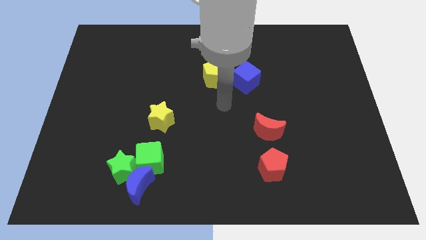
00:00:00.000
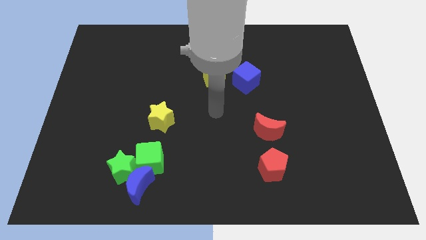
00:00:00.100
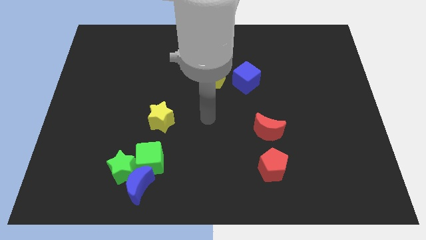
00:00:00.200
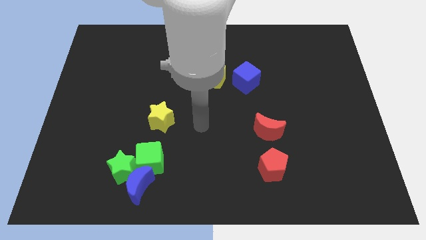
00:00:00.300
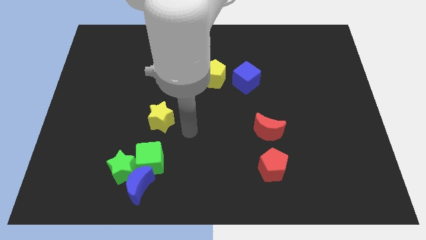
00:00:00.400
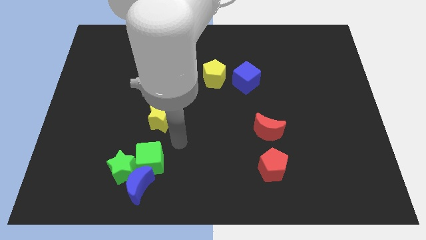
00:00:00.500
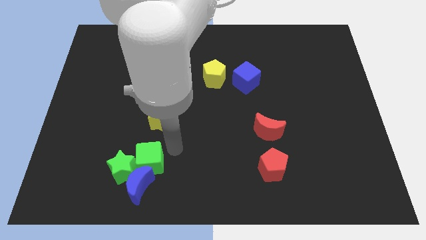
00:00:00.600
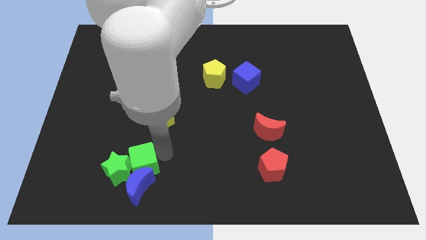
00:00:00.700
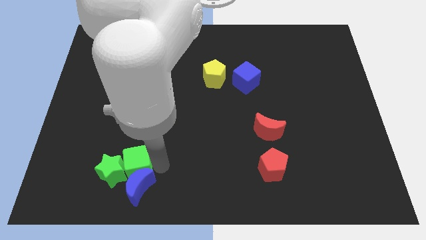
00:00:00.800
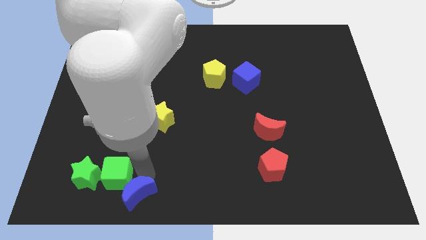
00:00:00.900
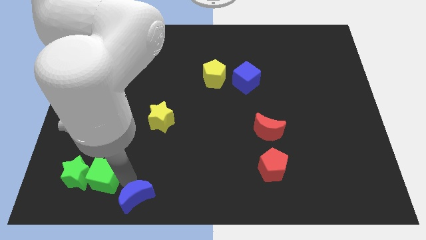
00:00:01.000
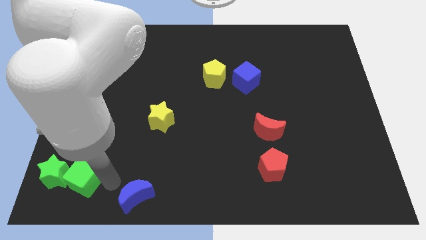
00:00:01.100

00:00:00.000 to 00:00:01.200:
pull the green star apart from the blue moon and green cube

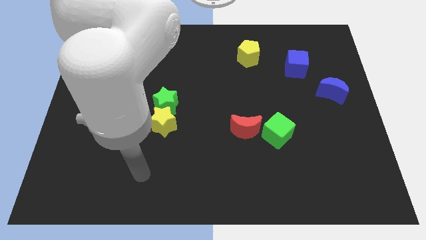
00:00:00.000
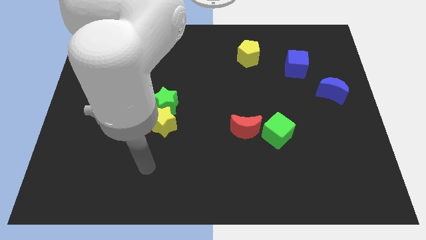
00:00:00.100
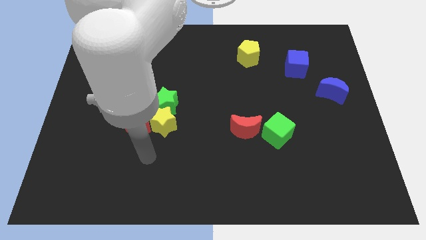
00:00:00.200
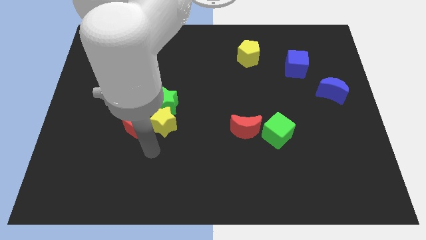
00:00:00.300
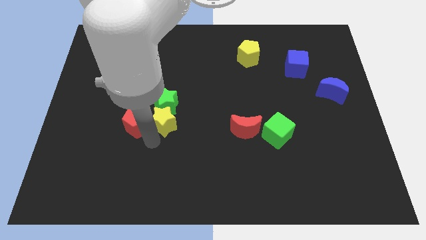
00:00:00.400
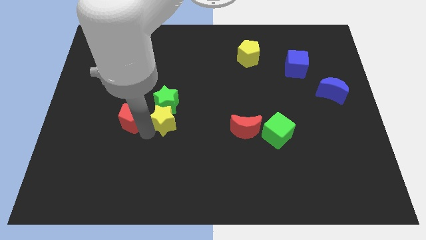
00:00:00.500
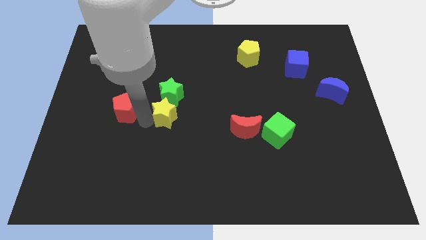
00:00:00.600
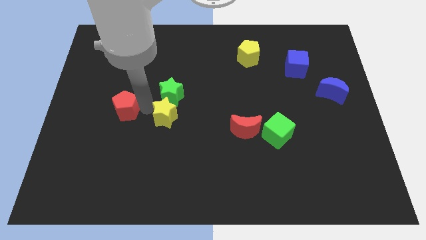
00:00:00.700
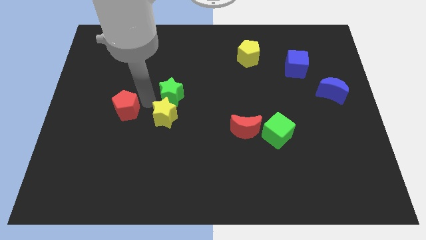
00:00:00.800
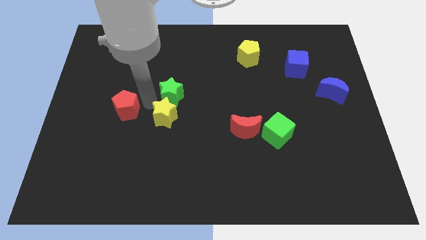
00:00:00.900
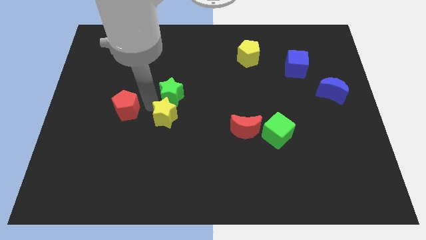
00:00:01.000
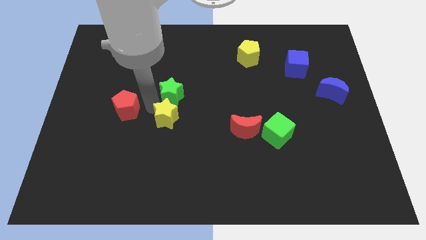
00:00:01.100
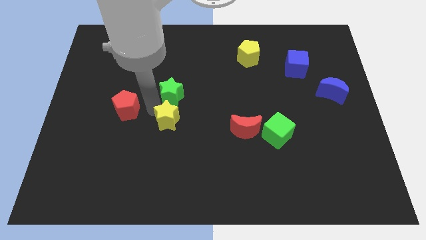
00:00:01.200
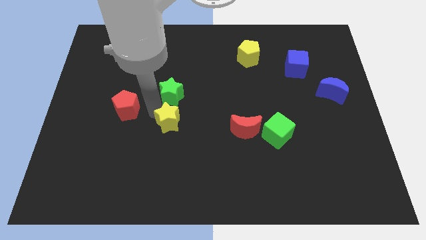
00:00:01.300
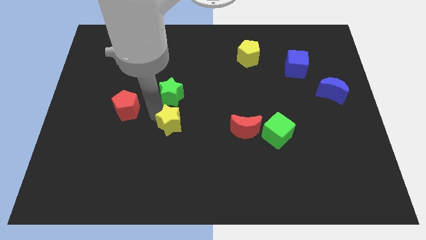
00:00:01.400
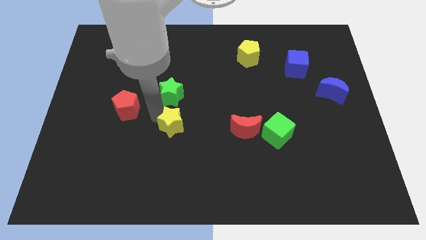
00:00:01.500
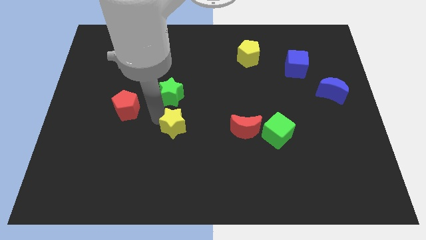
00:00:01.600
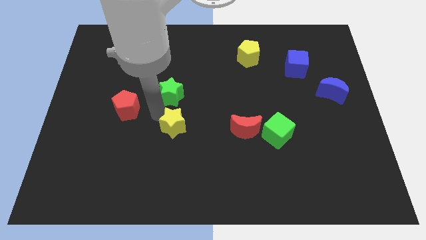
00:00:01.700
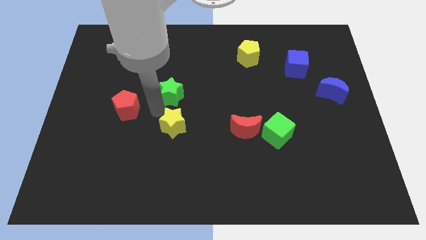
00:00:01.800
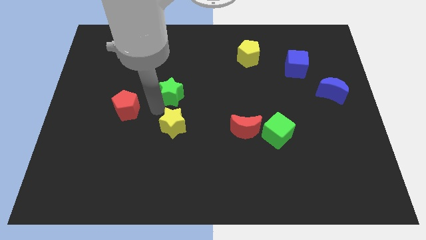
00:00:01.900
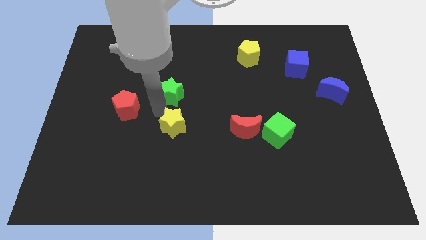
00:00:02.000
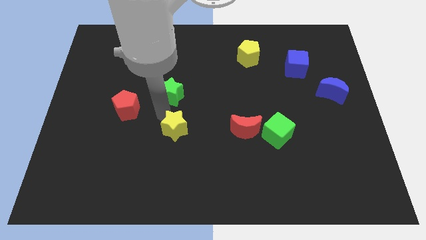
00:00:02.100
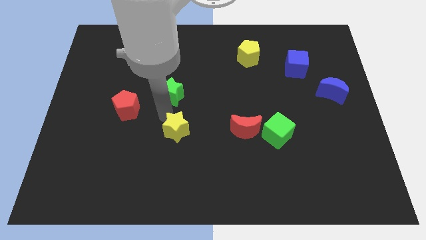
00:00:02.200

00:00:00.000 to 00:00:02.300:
move the yellow star away from the green star and red pentagon

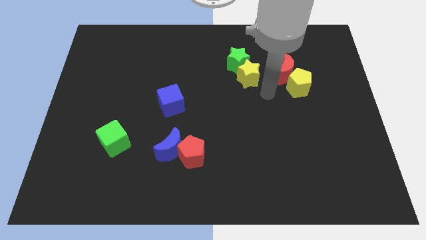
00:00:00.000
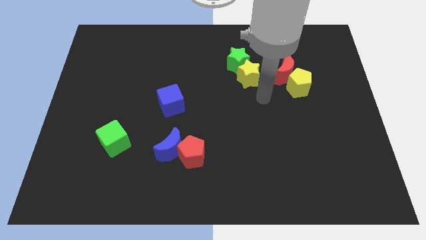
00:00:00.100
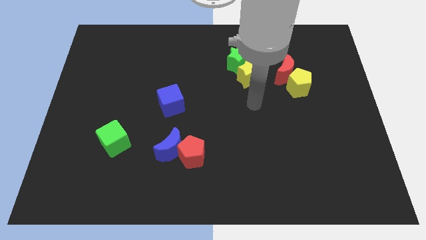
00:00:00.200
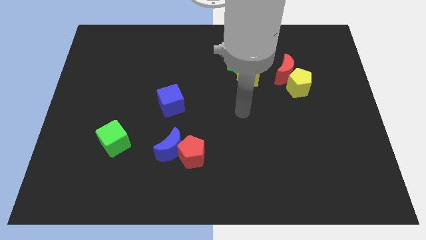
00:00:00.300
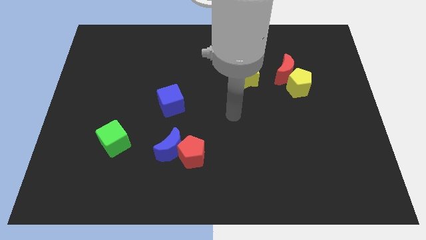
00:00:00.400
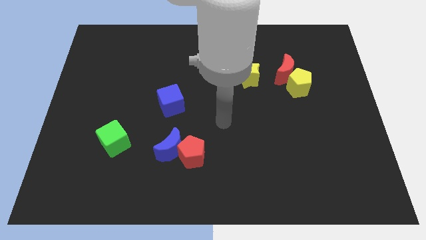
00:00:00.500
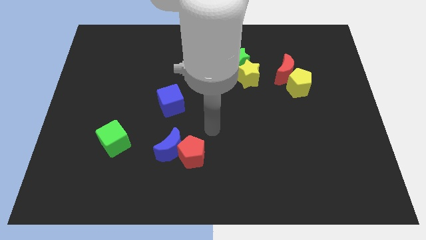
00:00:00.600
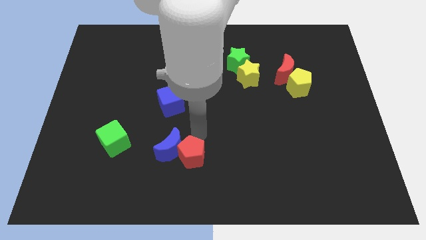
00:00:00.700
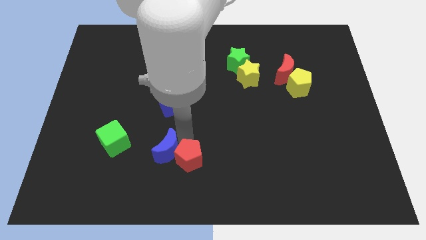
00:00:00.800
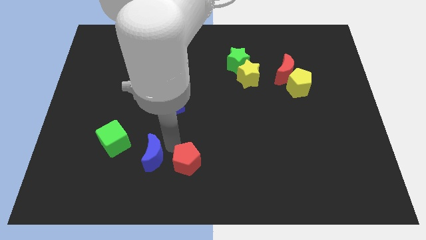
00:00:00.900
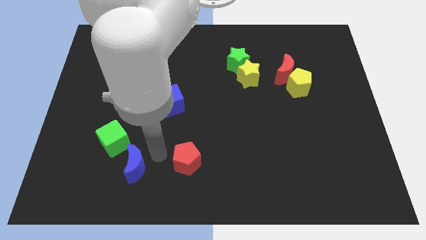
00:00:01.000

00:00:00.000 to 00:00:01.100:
pull the red pentagon apart from the blue moon

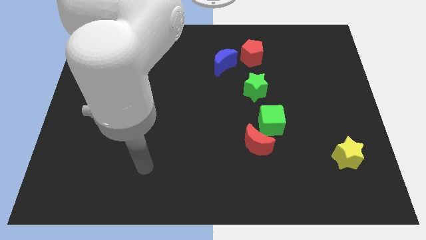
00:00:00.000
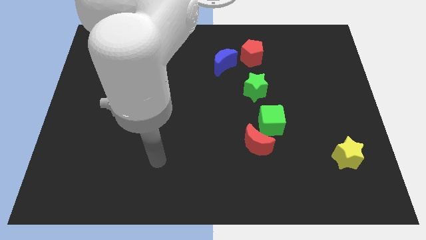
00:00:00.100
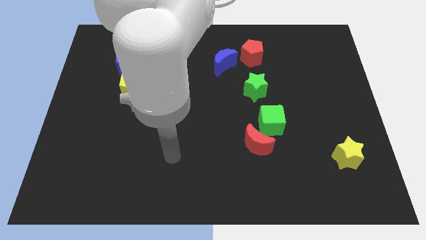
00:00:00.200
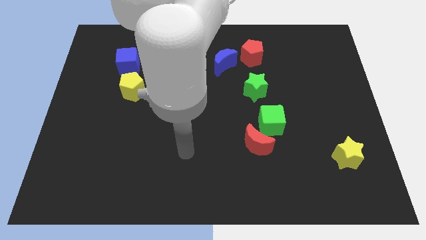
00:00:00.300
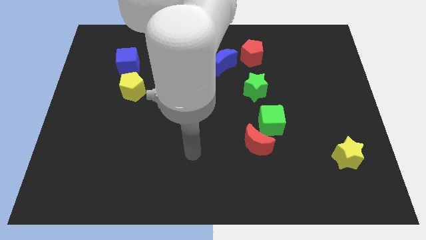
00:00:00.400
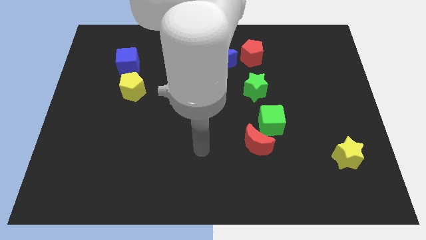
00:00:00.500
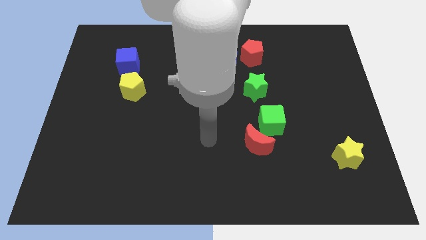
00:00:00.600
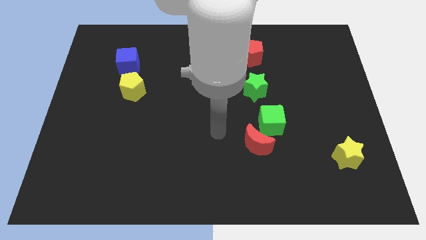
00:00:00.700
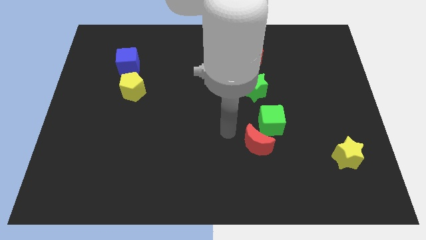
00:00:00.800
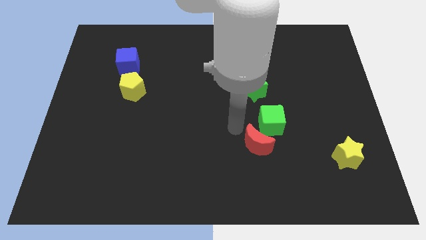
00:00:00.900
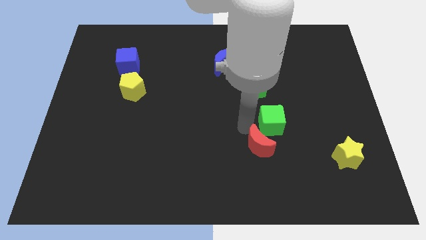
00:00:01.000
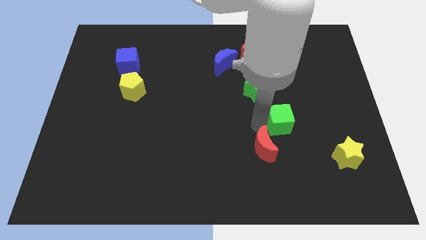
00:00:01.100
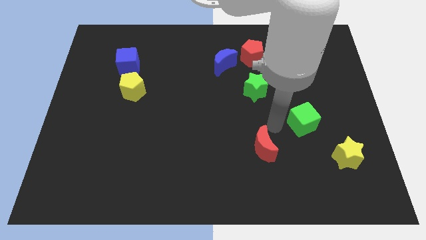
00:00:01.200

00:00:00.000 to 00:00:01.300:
pull the red moon apart from the green cube

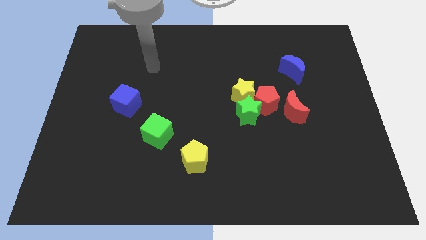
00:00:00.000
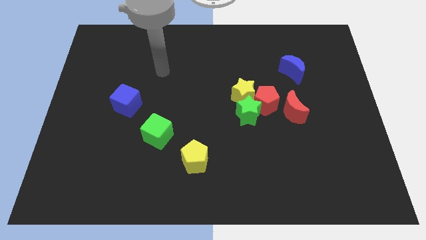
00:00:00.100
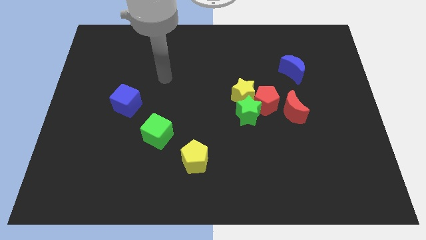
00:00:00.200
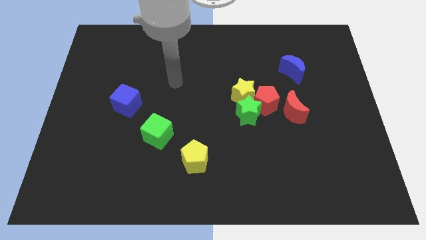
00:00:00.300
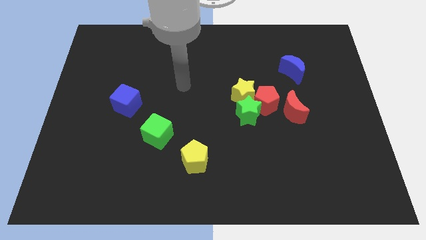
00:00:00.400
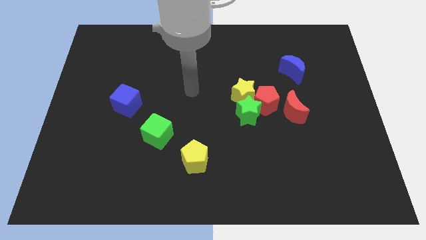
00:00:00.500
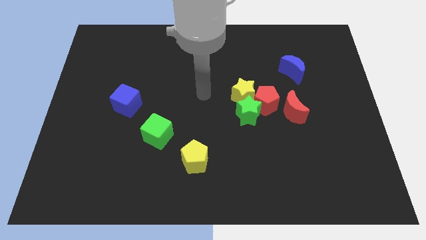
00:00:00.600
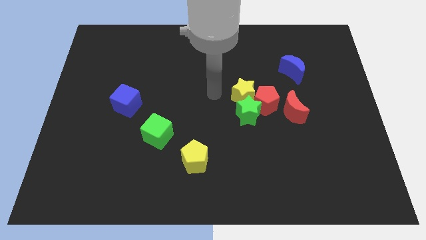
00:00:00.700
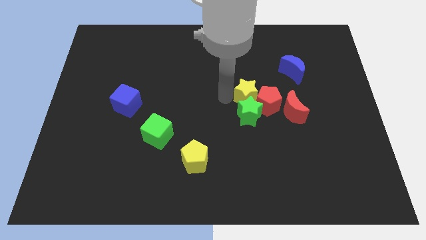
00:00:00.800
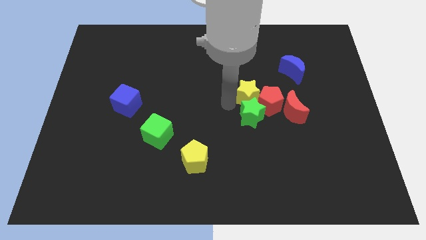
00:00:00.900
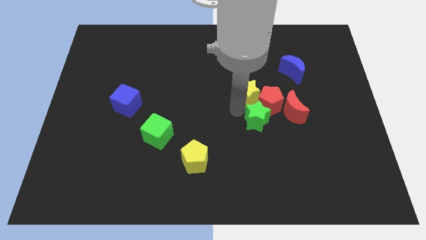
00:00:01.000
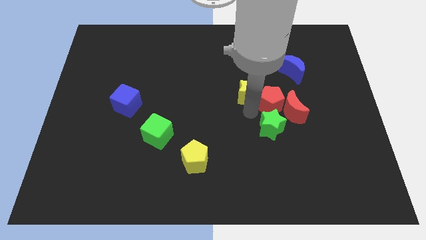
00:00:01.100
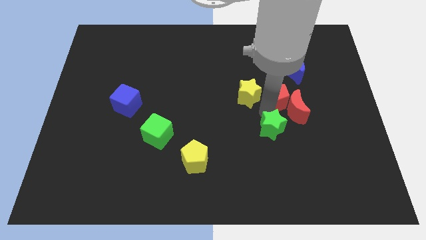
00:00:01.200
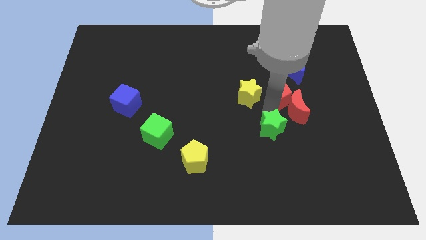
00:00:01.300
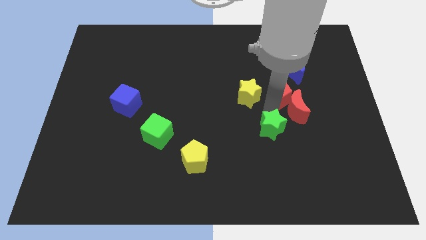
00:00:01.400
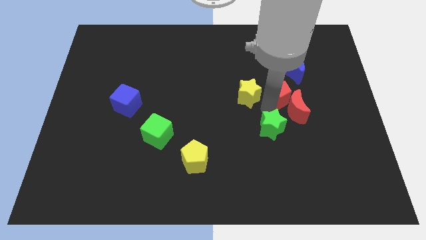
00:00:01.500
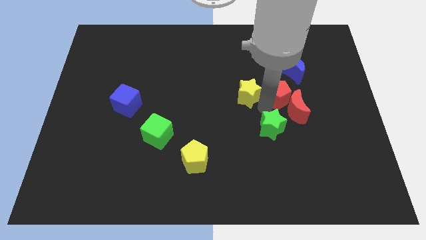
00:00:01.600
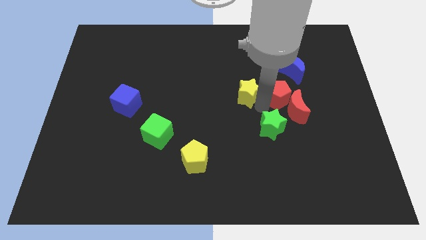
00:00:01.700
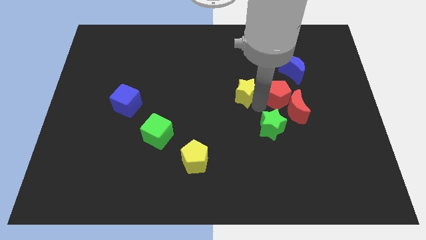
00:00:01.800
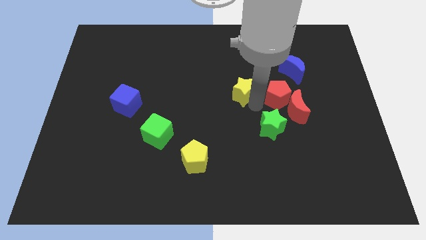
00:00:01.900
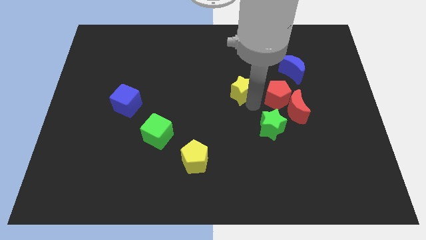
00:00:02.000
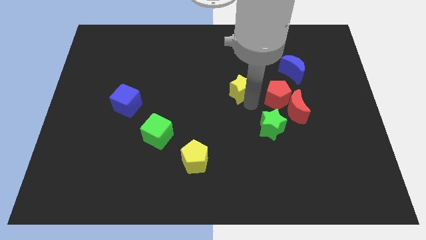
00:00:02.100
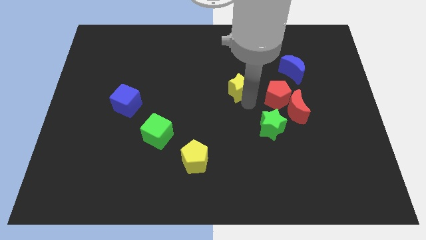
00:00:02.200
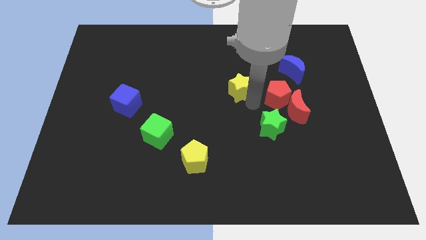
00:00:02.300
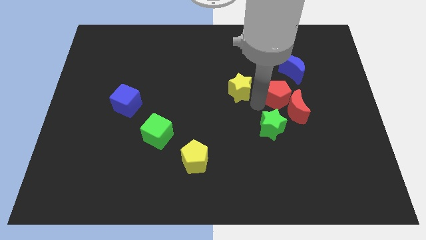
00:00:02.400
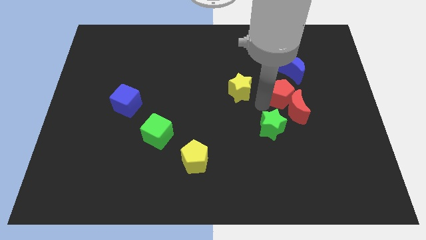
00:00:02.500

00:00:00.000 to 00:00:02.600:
pull the yellow star apart from the red pentagon and green star

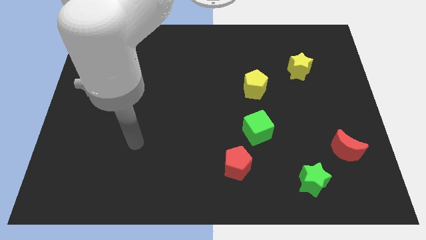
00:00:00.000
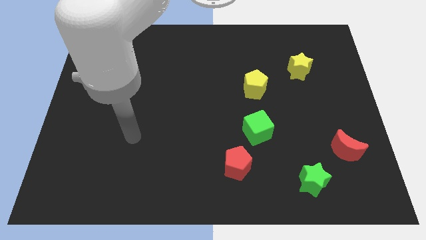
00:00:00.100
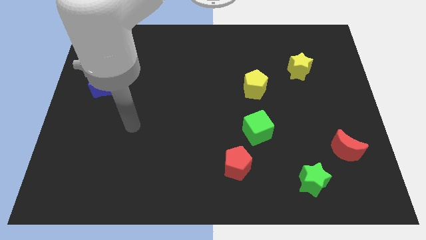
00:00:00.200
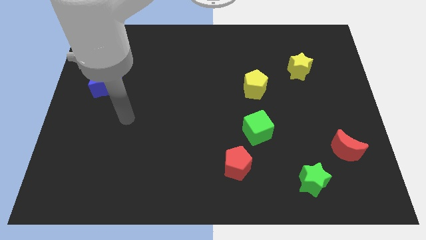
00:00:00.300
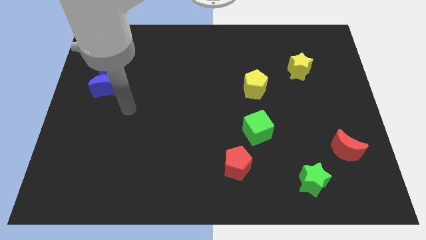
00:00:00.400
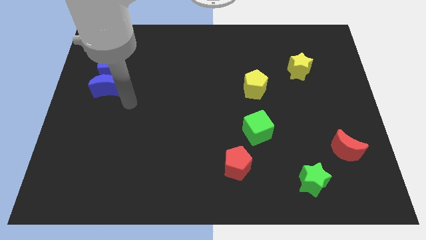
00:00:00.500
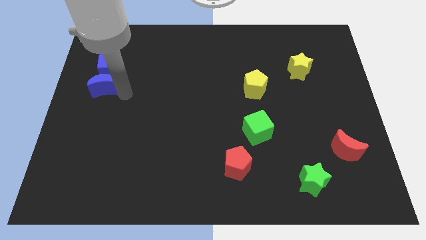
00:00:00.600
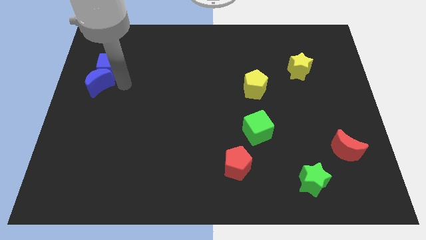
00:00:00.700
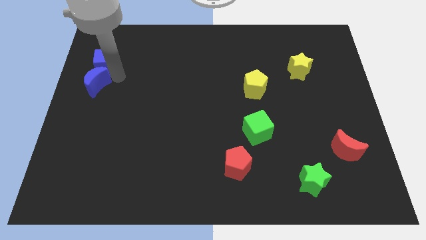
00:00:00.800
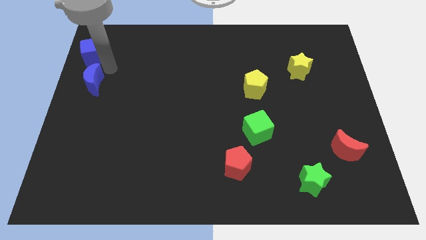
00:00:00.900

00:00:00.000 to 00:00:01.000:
pull the blue moon apart from the blue cube
